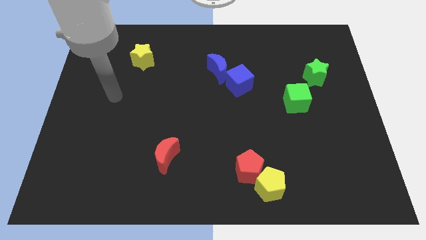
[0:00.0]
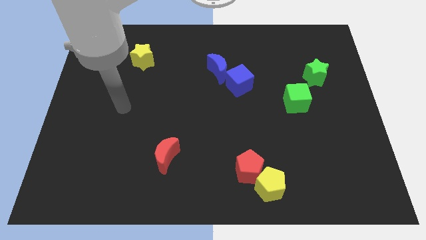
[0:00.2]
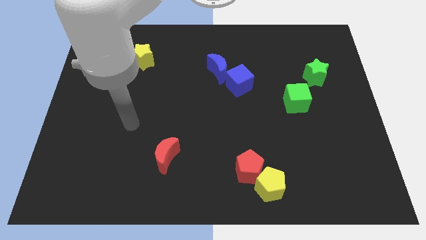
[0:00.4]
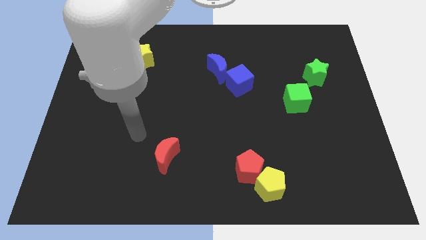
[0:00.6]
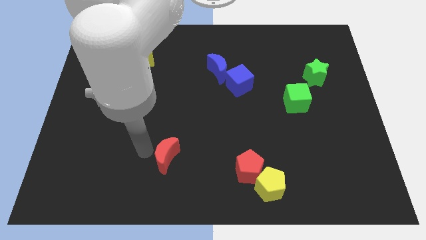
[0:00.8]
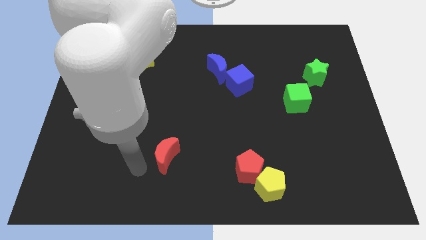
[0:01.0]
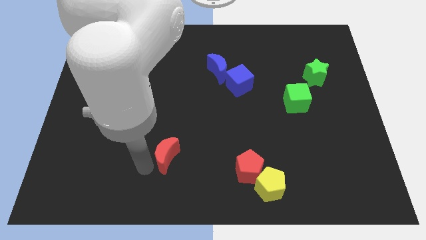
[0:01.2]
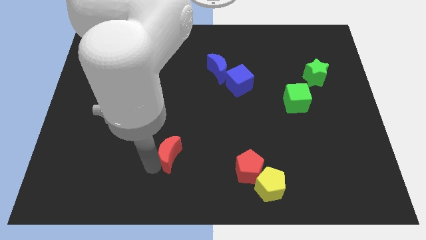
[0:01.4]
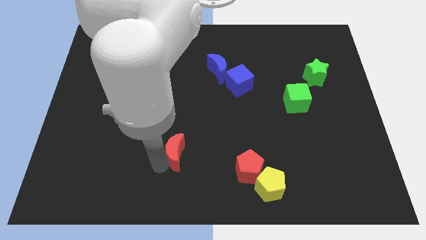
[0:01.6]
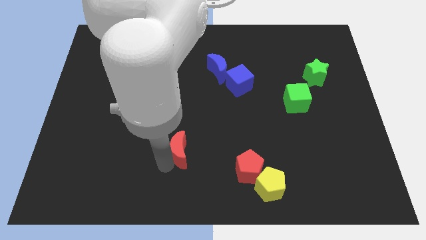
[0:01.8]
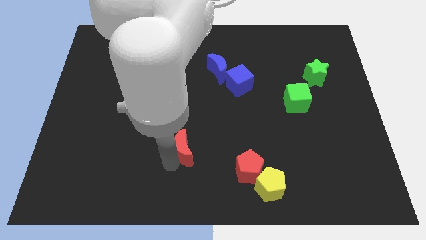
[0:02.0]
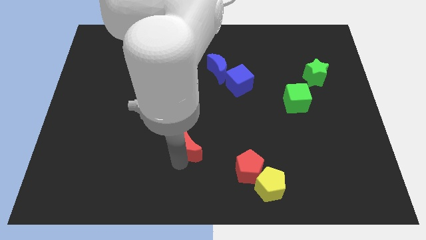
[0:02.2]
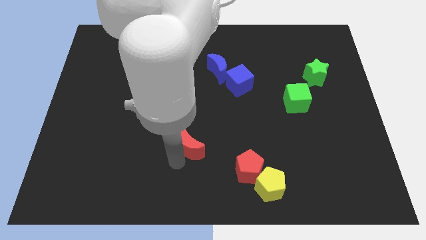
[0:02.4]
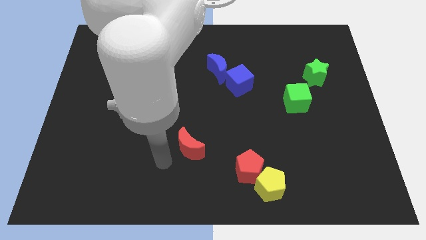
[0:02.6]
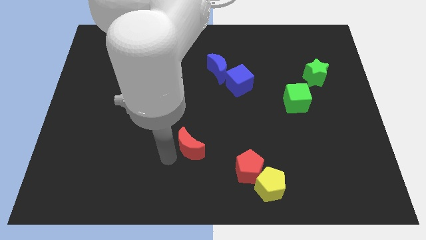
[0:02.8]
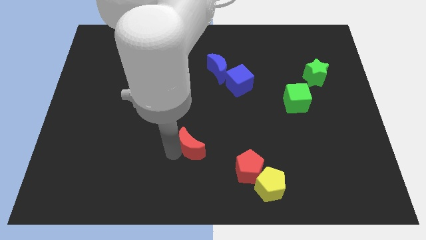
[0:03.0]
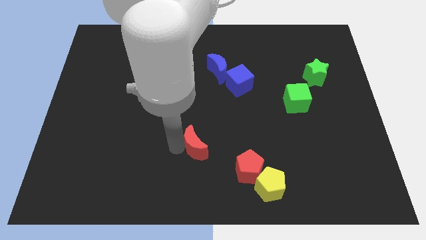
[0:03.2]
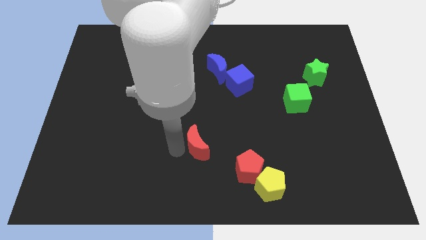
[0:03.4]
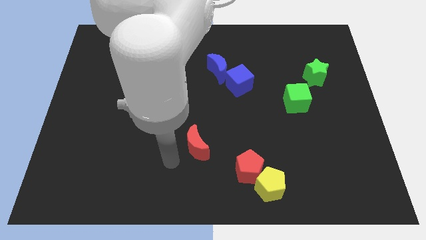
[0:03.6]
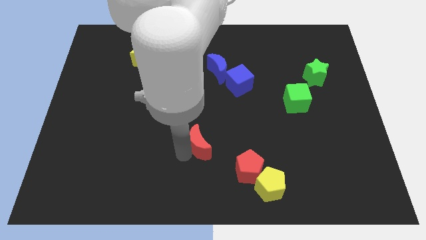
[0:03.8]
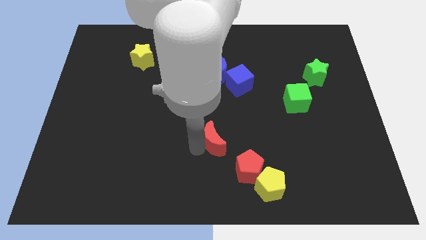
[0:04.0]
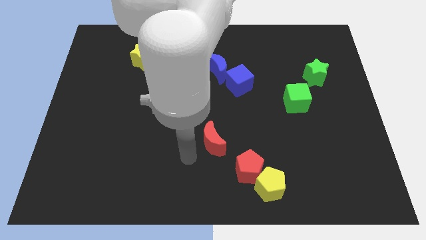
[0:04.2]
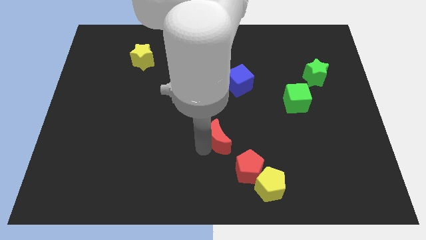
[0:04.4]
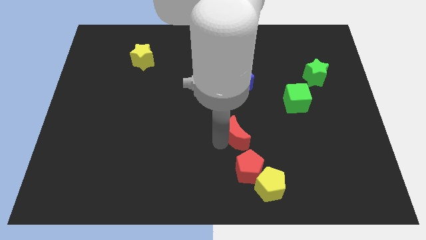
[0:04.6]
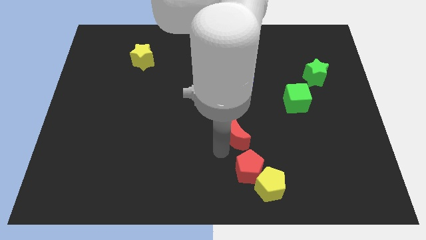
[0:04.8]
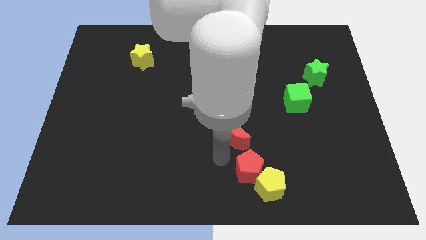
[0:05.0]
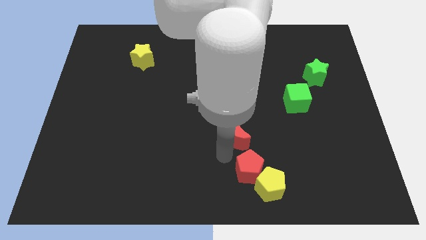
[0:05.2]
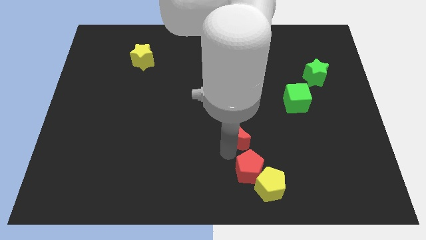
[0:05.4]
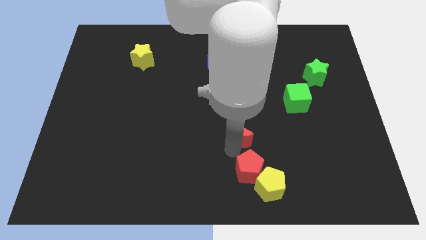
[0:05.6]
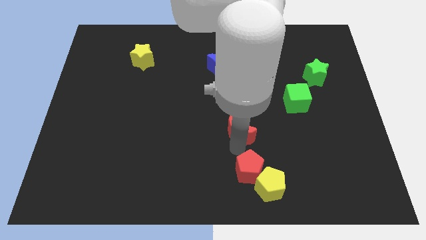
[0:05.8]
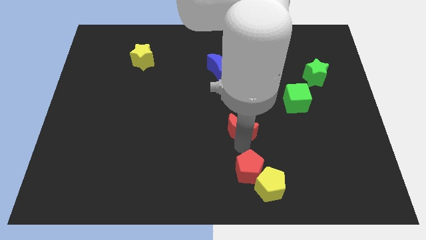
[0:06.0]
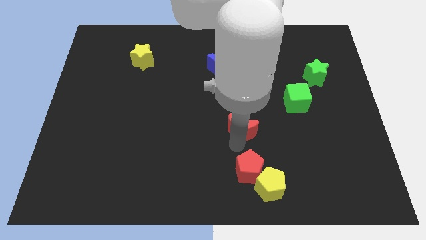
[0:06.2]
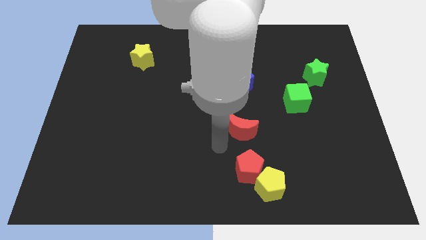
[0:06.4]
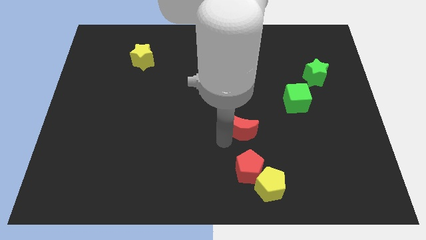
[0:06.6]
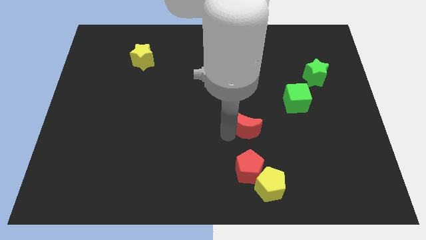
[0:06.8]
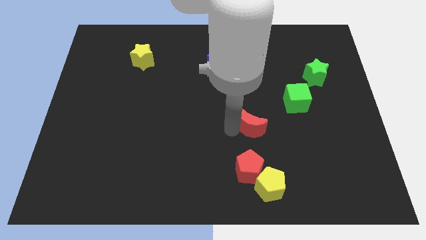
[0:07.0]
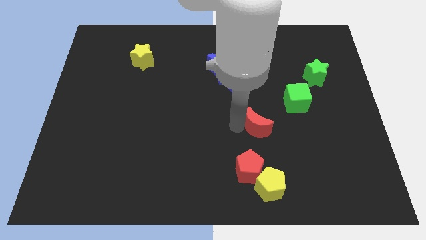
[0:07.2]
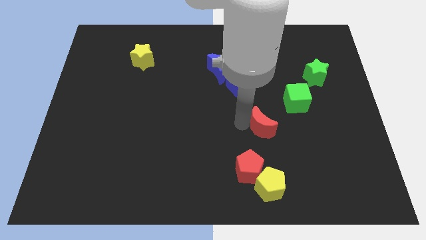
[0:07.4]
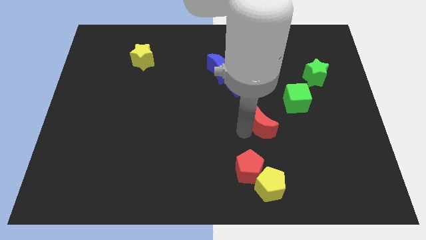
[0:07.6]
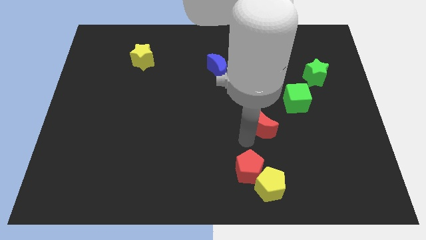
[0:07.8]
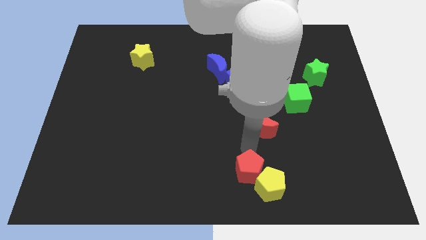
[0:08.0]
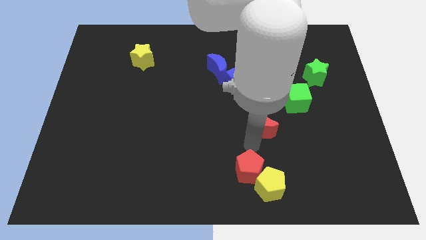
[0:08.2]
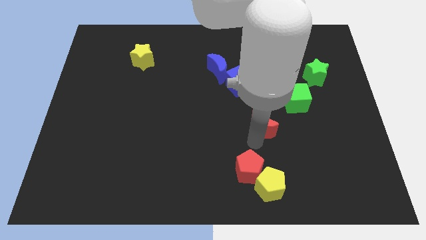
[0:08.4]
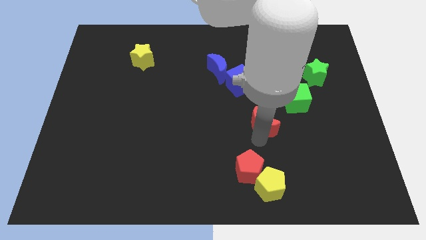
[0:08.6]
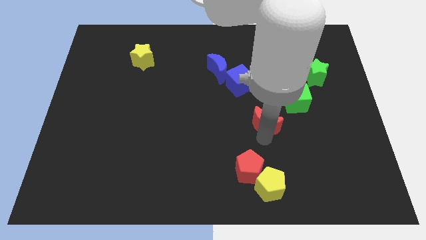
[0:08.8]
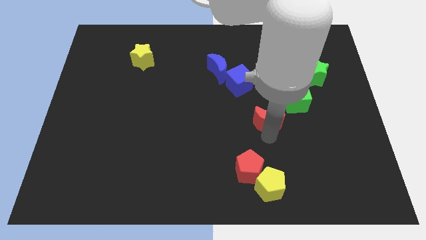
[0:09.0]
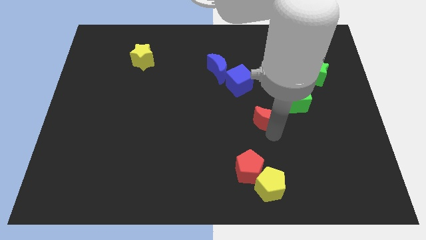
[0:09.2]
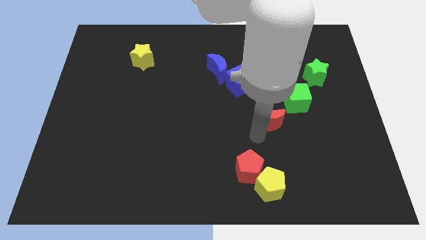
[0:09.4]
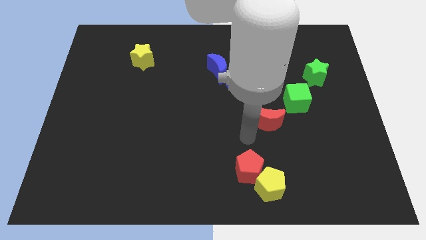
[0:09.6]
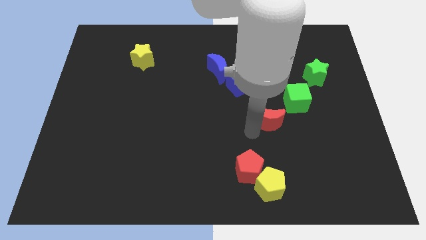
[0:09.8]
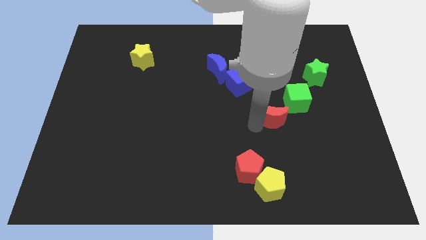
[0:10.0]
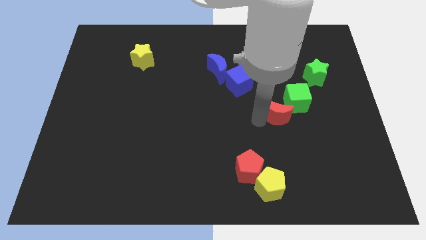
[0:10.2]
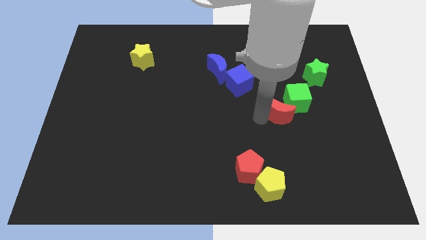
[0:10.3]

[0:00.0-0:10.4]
slide the red moon close to the green cube

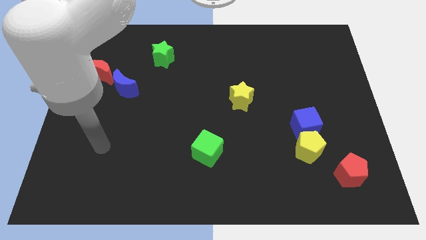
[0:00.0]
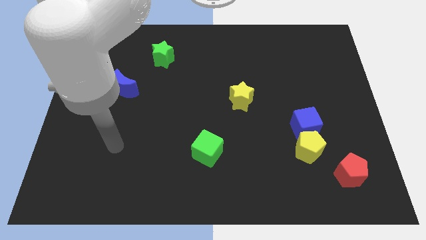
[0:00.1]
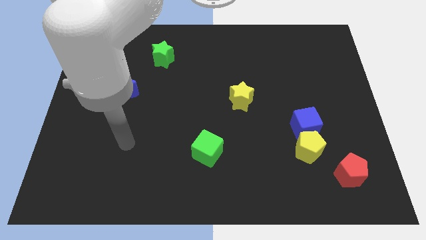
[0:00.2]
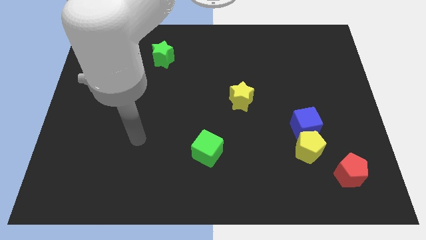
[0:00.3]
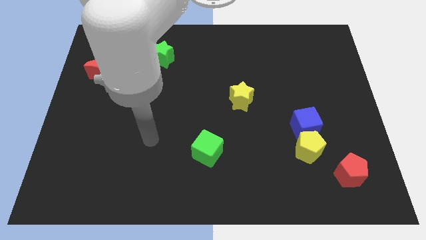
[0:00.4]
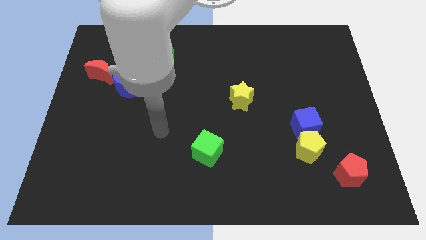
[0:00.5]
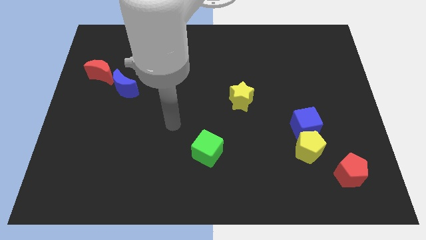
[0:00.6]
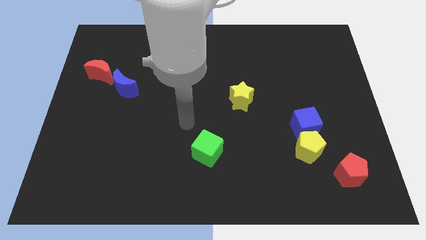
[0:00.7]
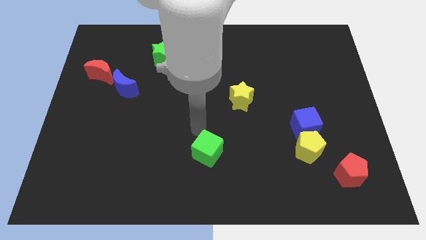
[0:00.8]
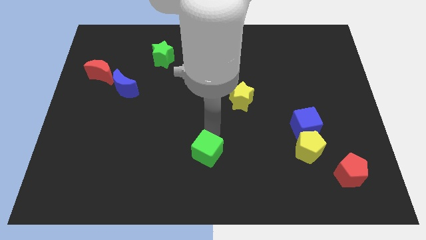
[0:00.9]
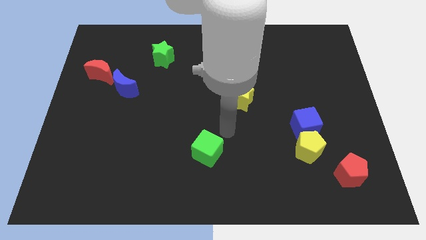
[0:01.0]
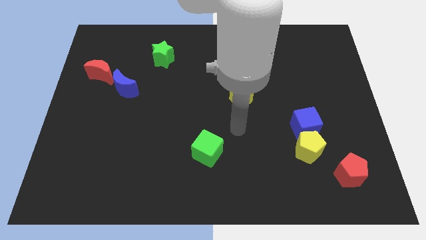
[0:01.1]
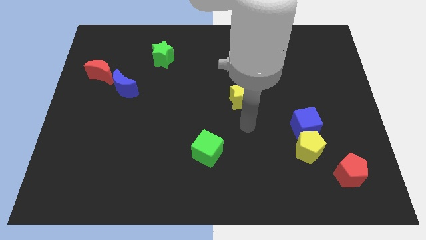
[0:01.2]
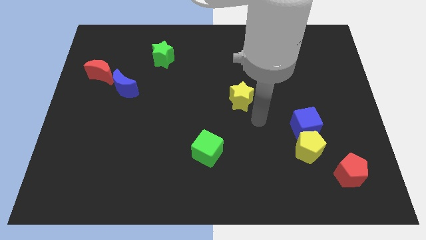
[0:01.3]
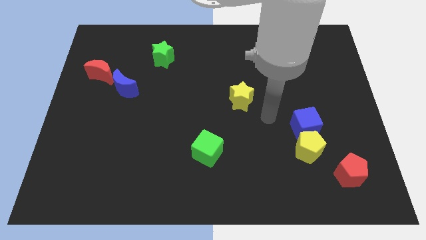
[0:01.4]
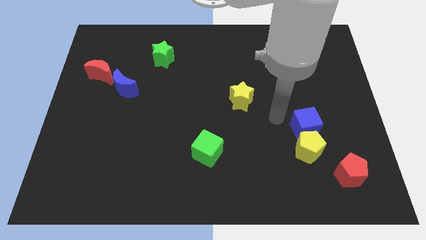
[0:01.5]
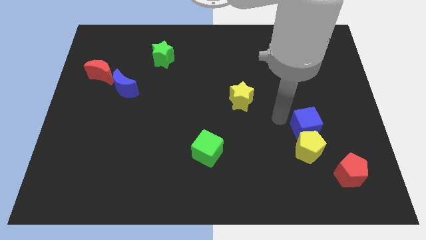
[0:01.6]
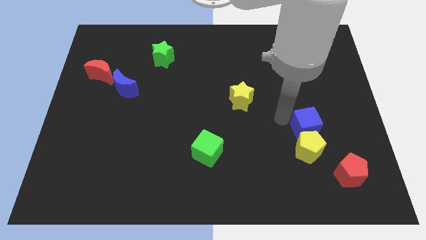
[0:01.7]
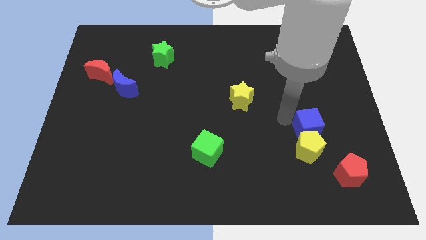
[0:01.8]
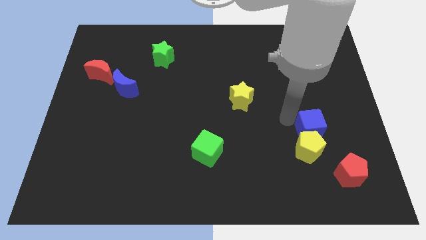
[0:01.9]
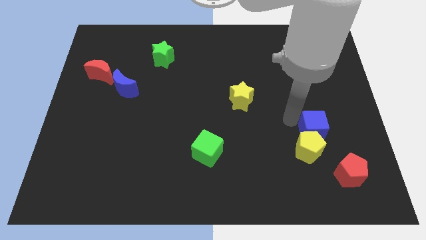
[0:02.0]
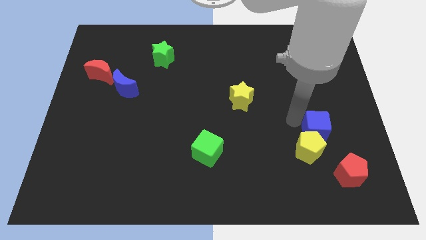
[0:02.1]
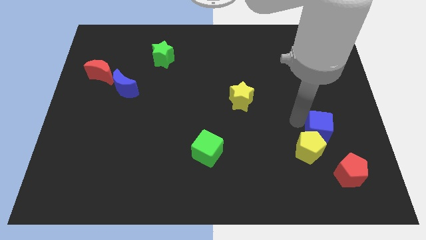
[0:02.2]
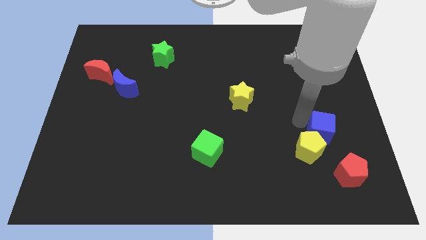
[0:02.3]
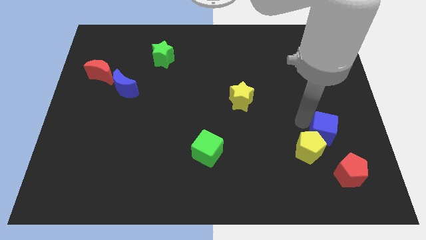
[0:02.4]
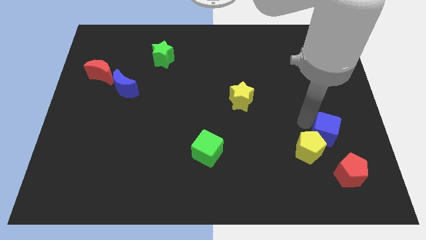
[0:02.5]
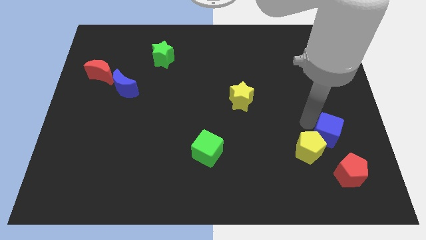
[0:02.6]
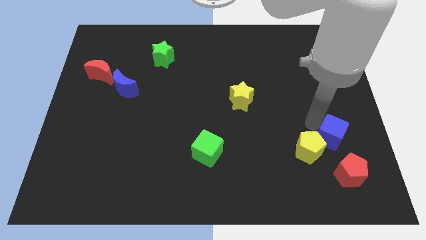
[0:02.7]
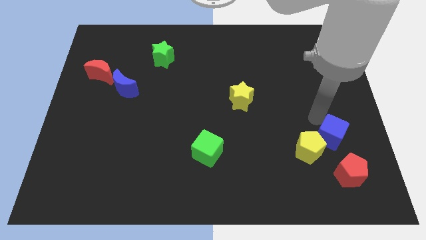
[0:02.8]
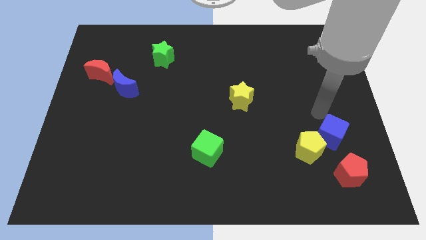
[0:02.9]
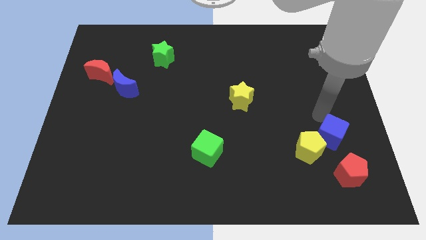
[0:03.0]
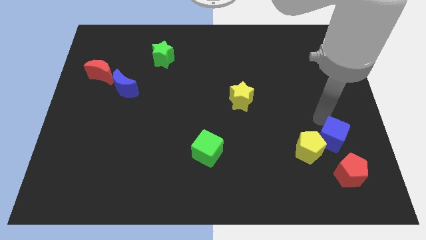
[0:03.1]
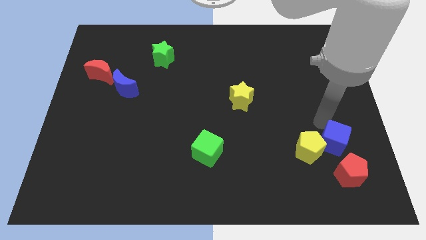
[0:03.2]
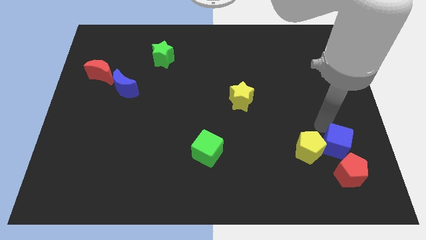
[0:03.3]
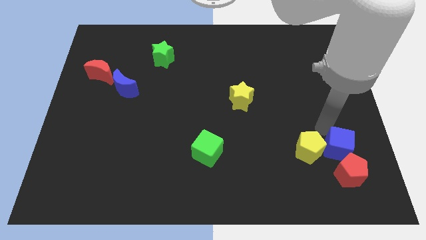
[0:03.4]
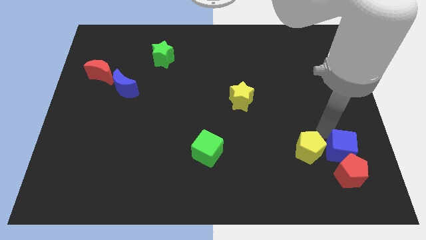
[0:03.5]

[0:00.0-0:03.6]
slide the blue cube next to the red pentagon
